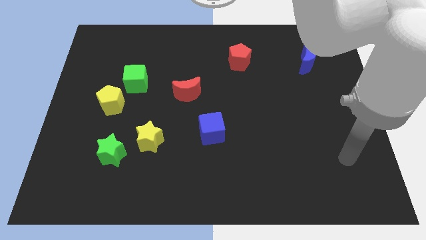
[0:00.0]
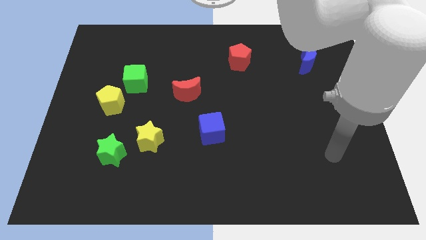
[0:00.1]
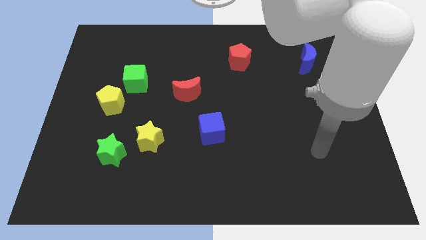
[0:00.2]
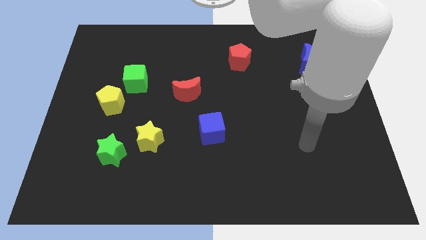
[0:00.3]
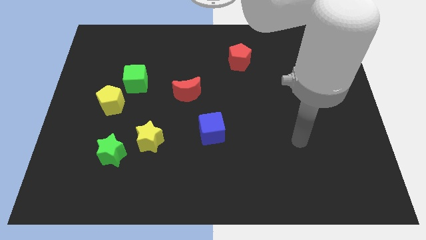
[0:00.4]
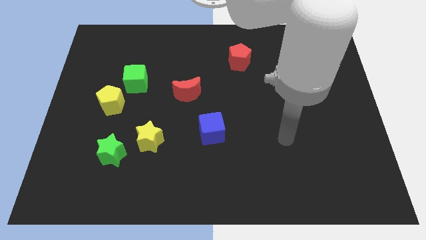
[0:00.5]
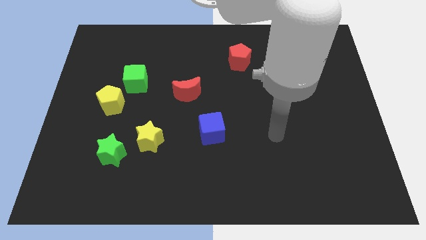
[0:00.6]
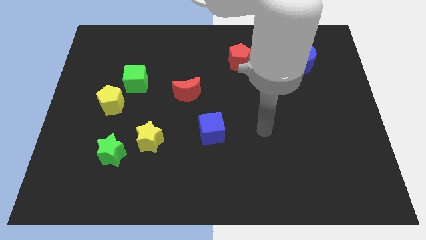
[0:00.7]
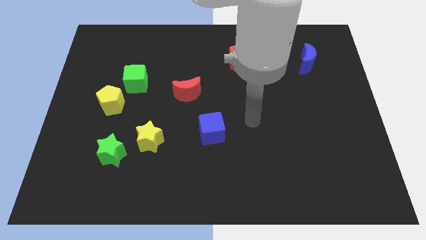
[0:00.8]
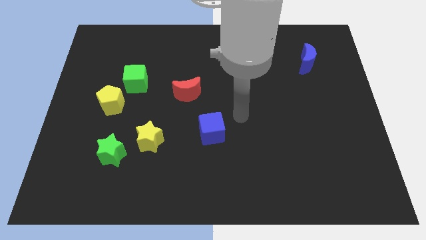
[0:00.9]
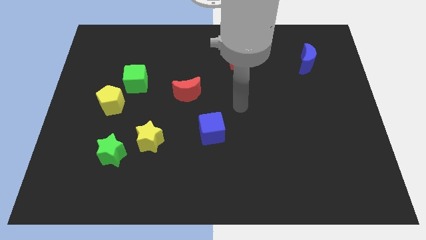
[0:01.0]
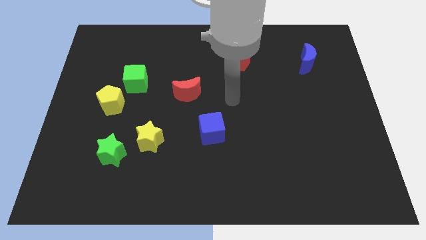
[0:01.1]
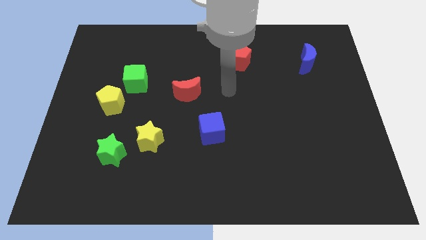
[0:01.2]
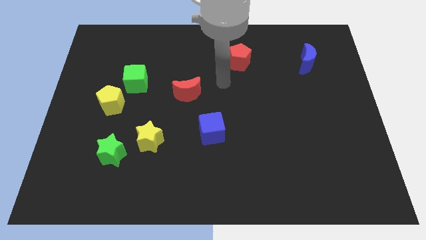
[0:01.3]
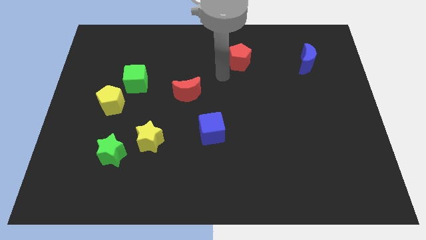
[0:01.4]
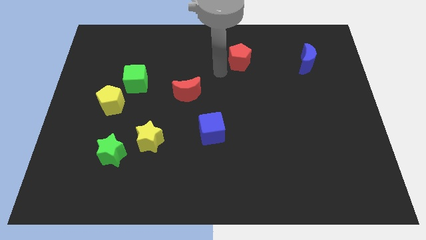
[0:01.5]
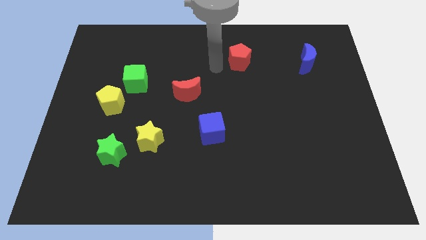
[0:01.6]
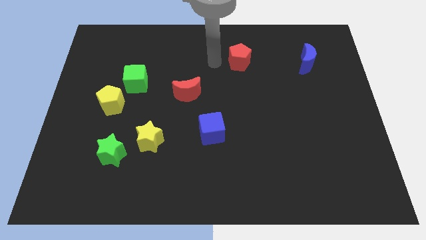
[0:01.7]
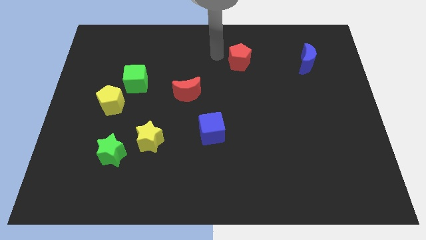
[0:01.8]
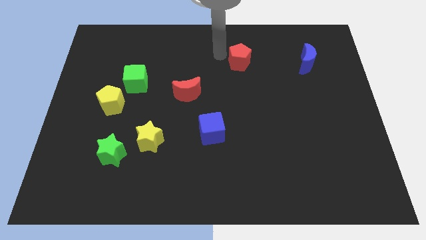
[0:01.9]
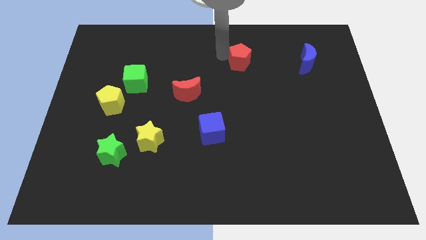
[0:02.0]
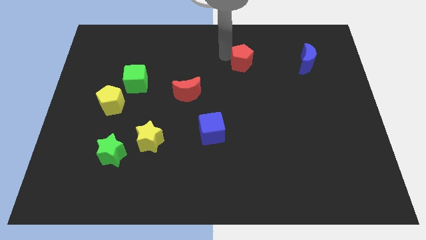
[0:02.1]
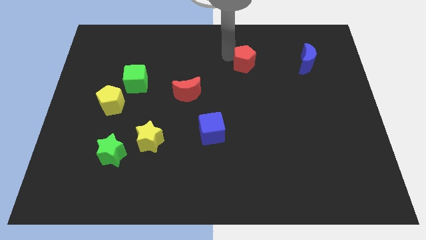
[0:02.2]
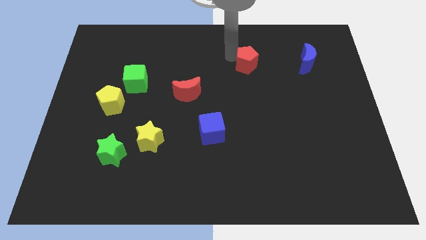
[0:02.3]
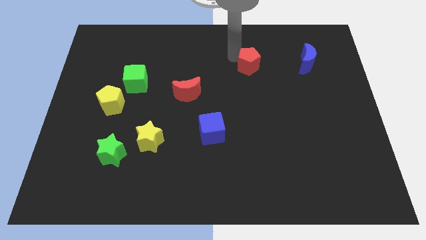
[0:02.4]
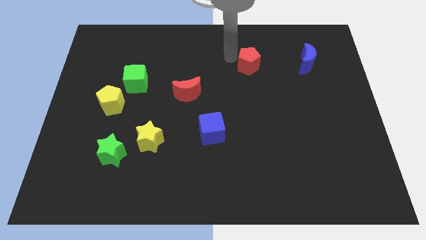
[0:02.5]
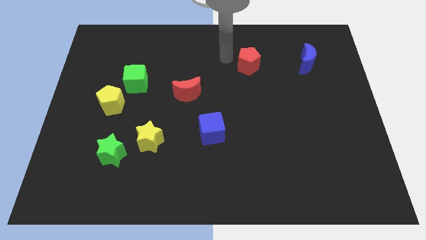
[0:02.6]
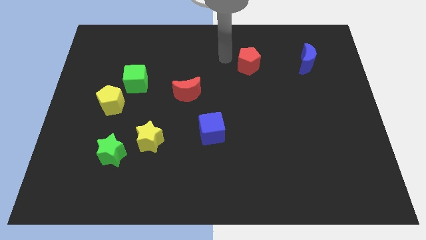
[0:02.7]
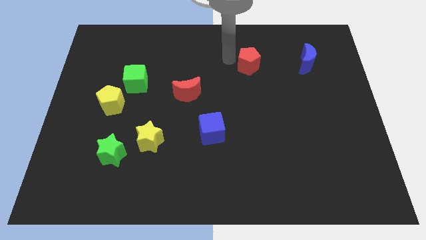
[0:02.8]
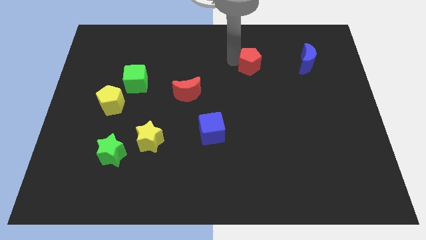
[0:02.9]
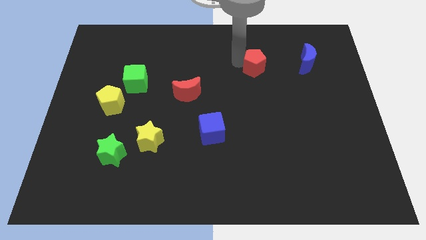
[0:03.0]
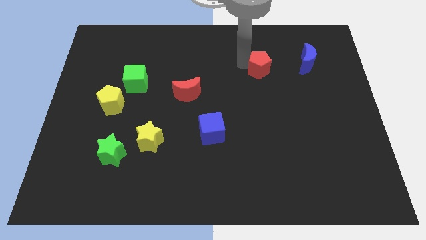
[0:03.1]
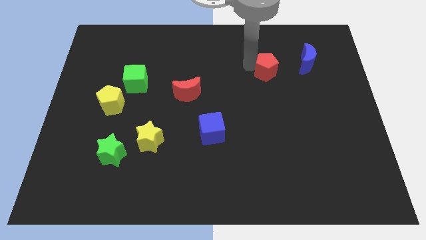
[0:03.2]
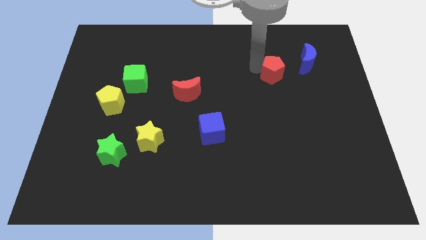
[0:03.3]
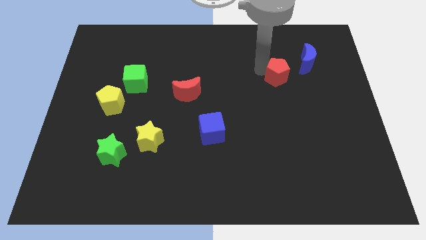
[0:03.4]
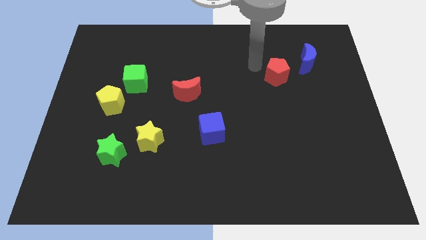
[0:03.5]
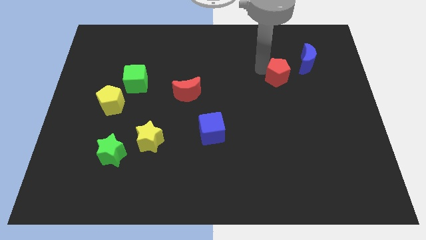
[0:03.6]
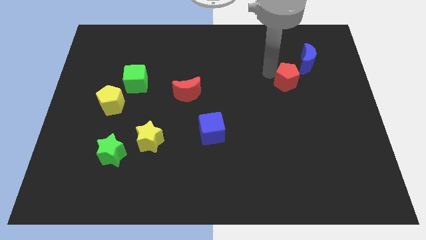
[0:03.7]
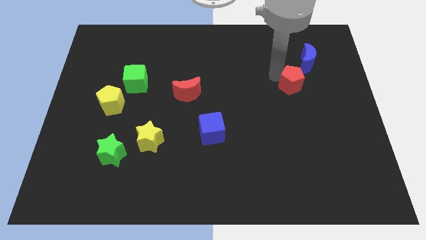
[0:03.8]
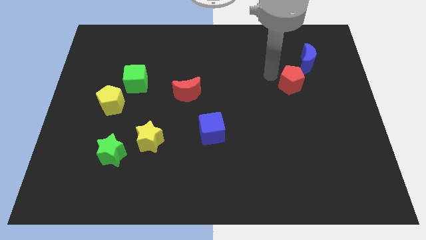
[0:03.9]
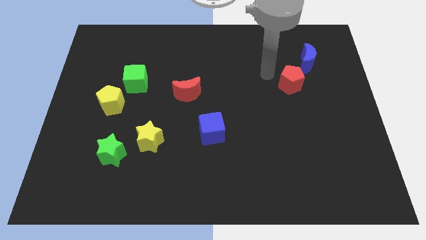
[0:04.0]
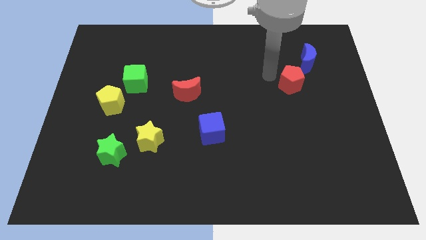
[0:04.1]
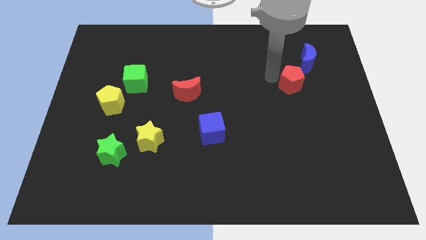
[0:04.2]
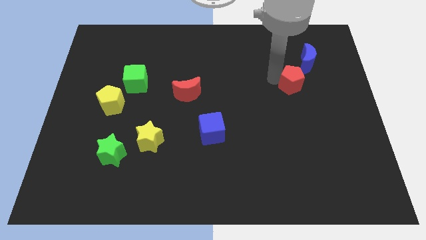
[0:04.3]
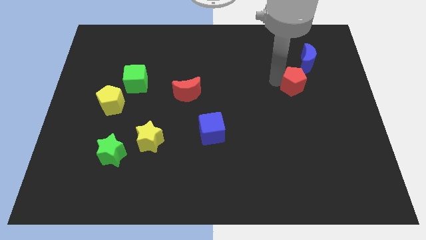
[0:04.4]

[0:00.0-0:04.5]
move the red pentagon below the blue moon

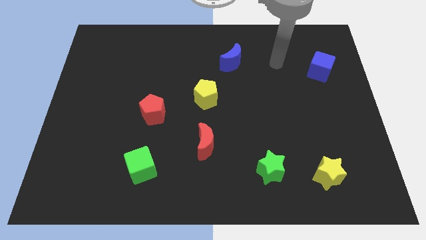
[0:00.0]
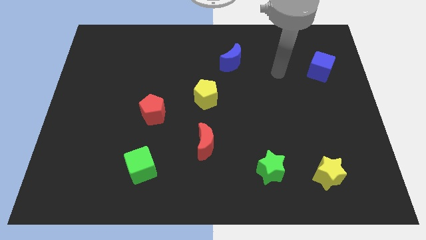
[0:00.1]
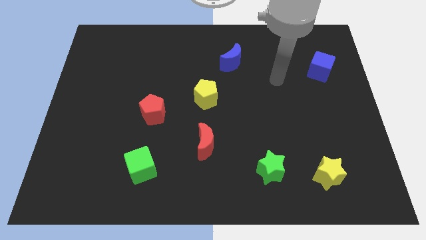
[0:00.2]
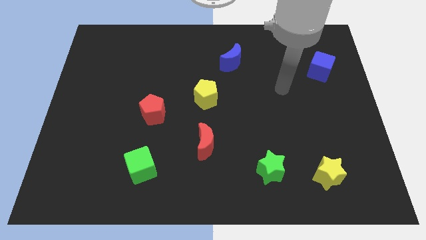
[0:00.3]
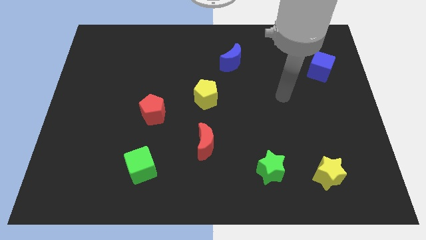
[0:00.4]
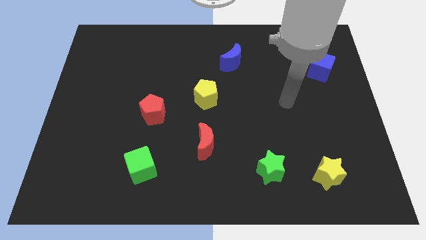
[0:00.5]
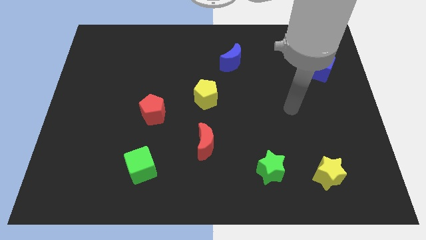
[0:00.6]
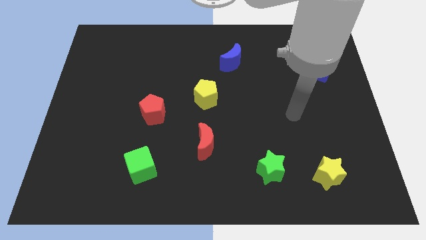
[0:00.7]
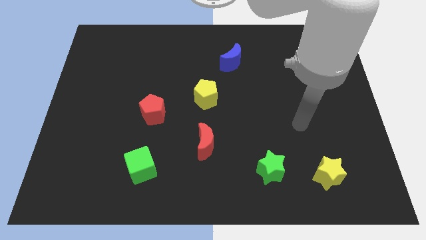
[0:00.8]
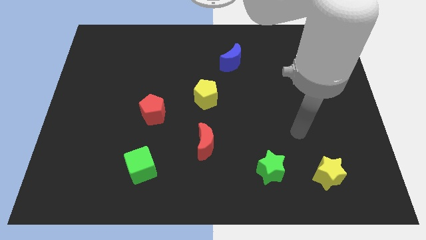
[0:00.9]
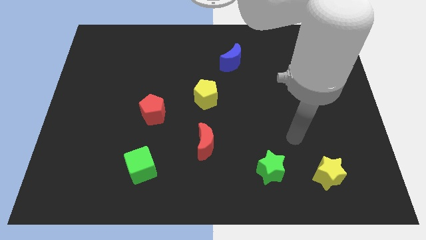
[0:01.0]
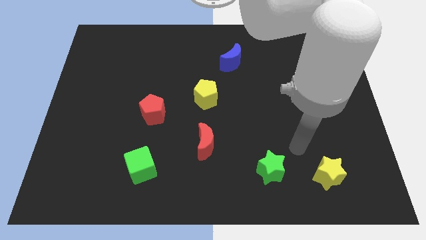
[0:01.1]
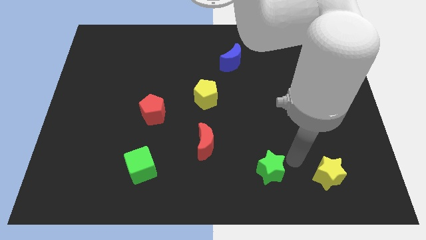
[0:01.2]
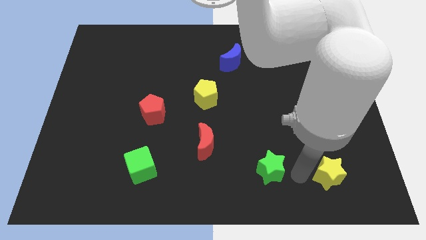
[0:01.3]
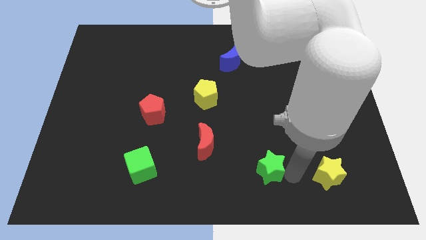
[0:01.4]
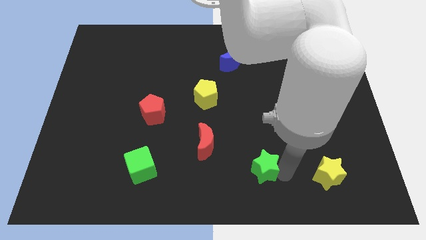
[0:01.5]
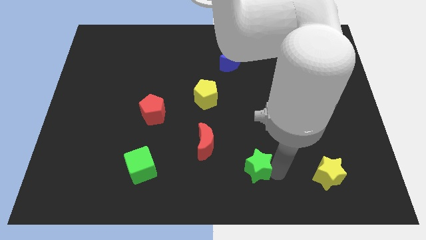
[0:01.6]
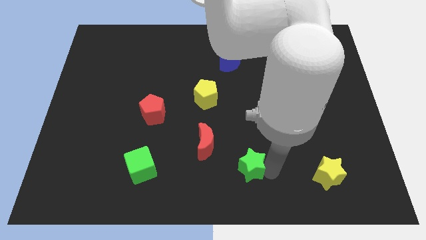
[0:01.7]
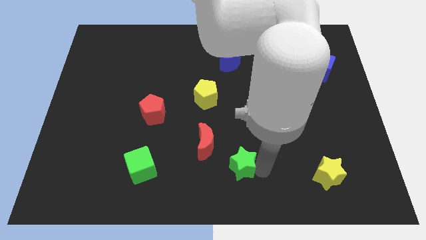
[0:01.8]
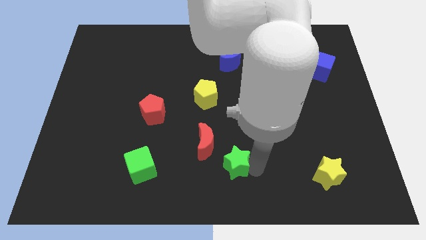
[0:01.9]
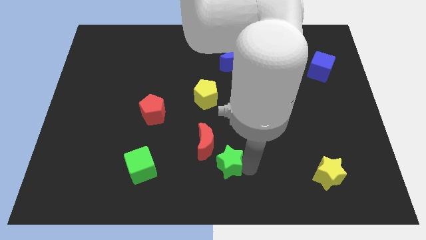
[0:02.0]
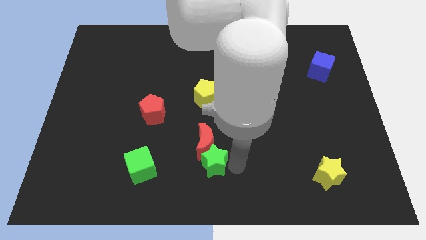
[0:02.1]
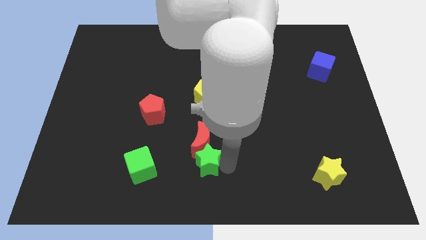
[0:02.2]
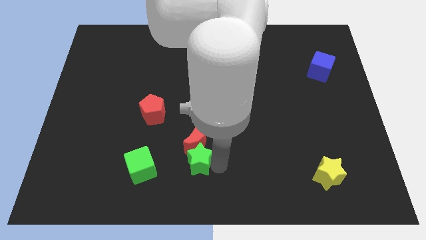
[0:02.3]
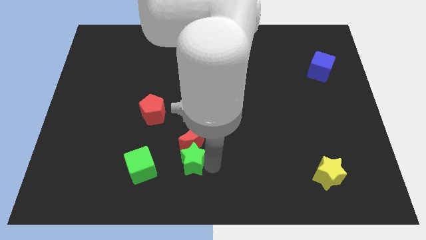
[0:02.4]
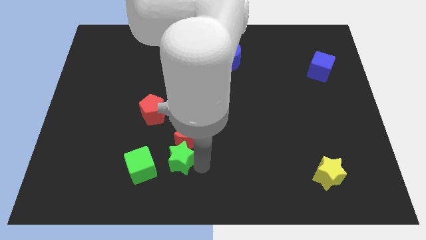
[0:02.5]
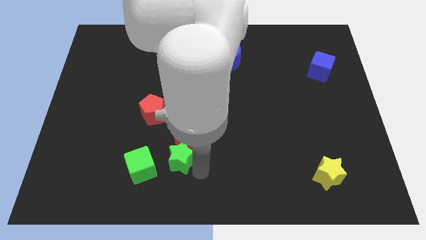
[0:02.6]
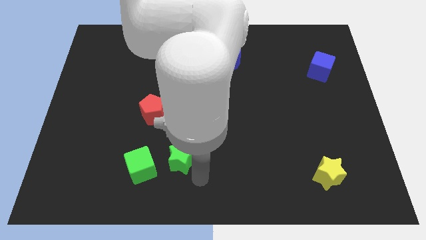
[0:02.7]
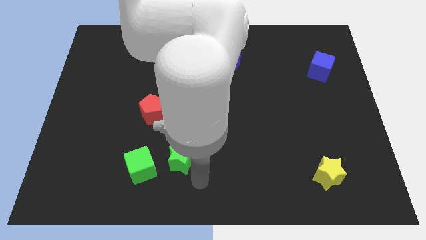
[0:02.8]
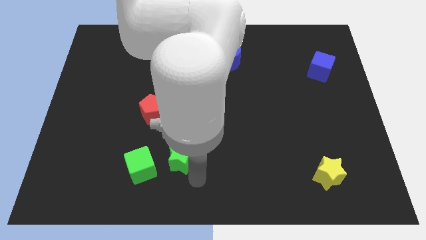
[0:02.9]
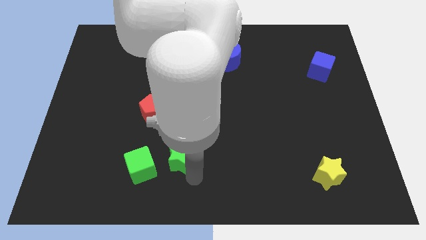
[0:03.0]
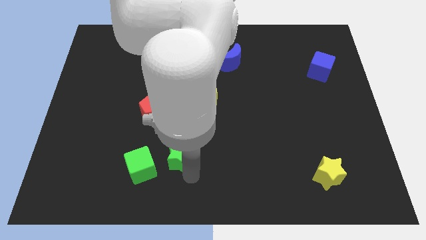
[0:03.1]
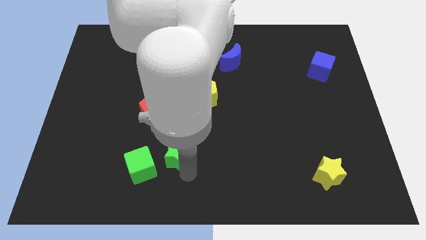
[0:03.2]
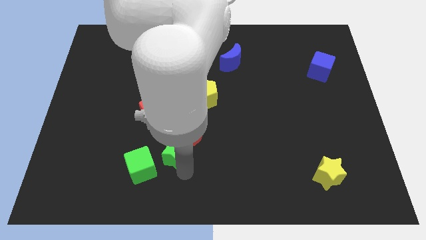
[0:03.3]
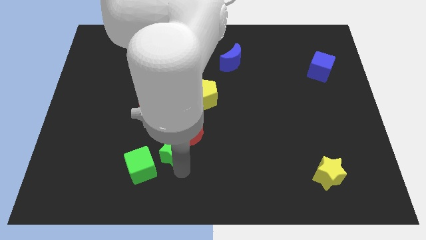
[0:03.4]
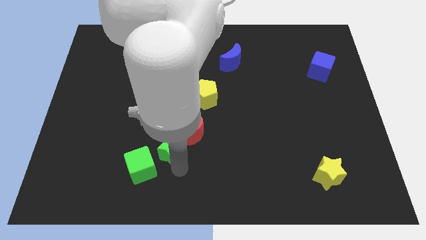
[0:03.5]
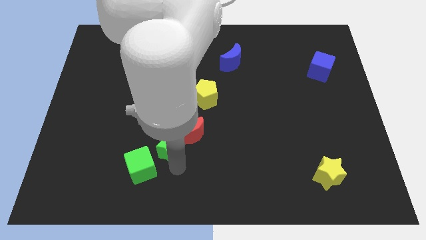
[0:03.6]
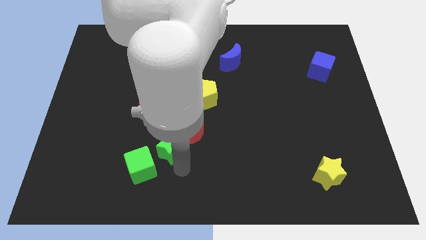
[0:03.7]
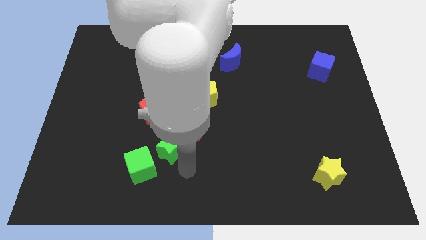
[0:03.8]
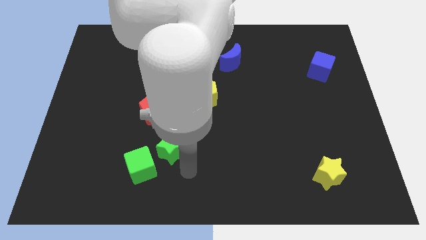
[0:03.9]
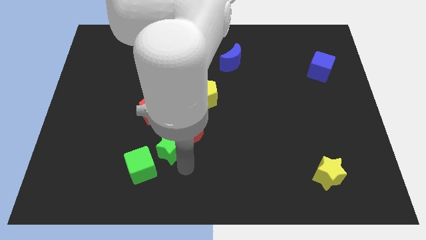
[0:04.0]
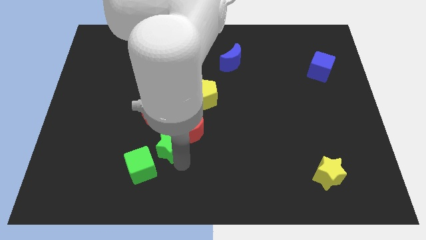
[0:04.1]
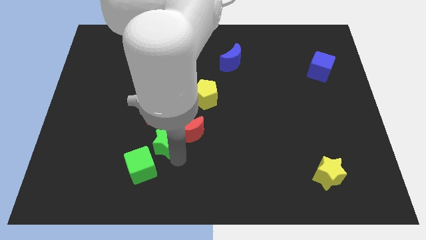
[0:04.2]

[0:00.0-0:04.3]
move the green star above the green cube

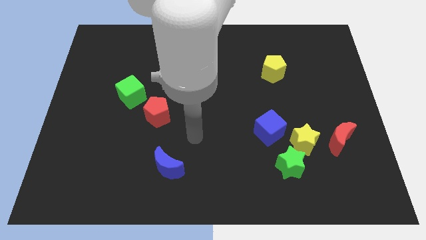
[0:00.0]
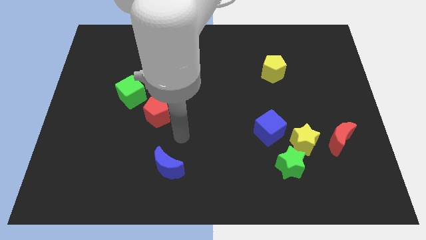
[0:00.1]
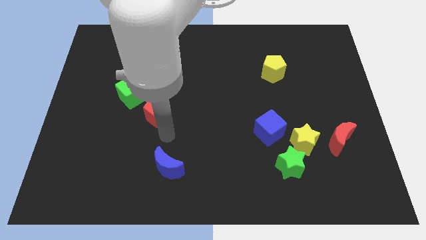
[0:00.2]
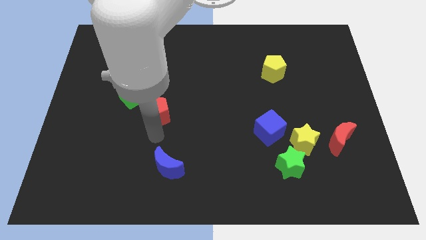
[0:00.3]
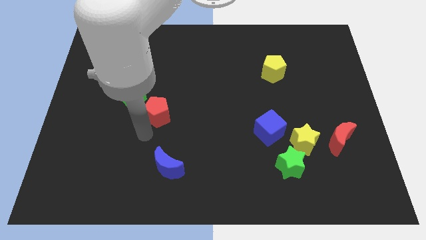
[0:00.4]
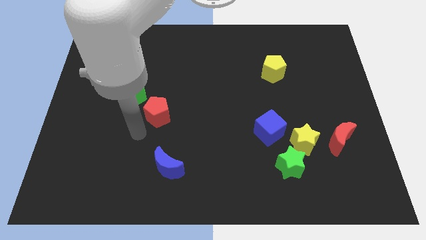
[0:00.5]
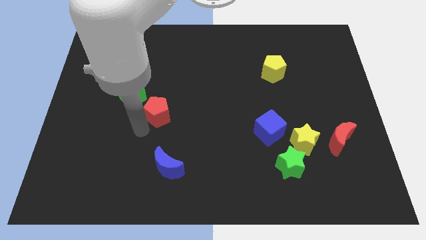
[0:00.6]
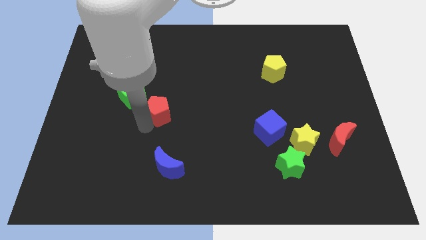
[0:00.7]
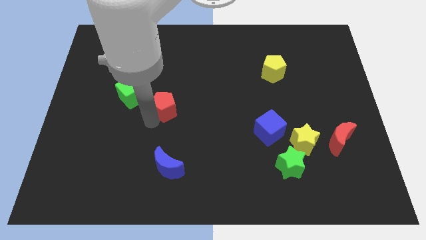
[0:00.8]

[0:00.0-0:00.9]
slide the red pentagon right of the green cube
